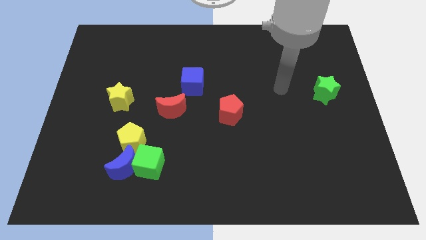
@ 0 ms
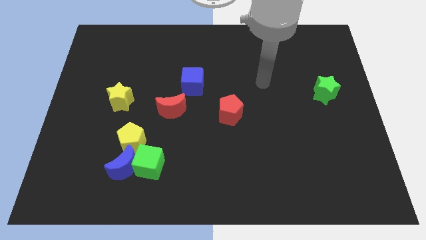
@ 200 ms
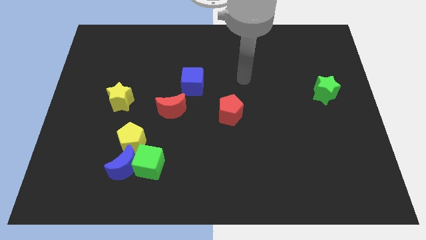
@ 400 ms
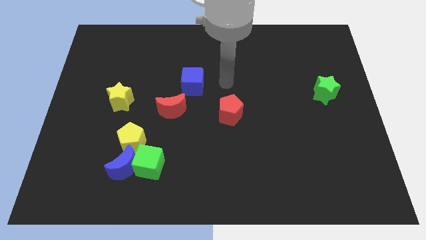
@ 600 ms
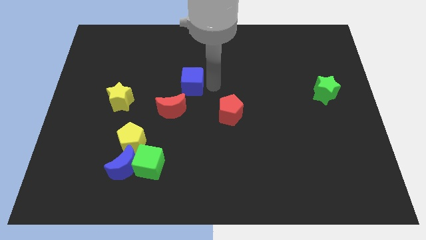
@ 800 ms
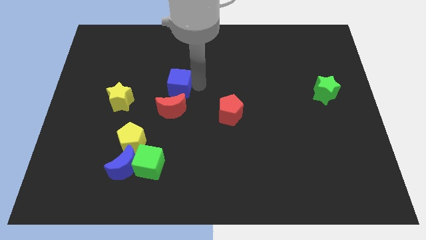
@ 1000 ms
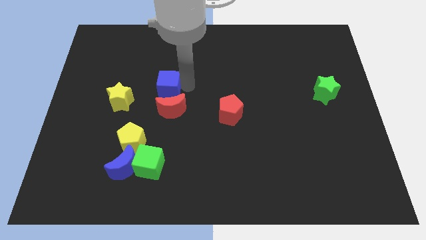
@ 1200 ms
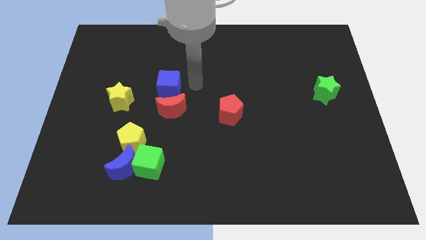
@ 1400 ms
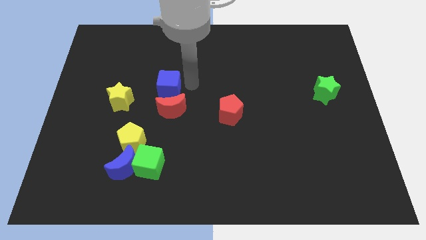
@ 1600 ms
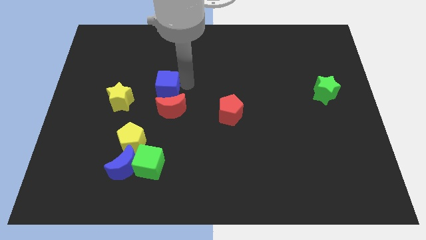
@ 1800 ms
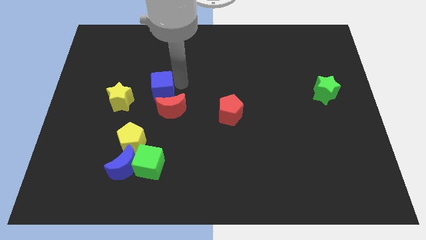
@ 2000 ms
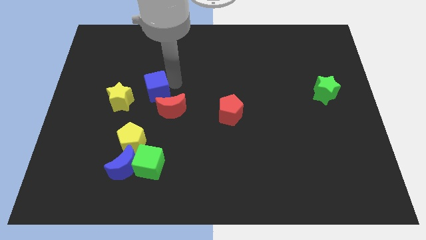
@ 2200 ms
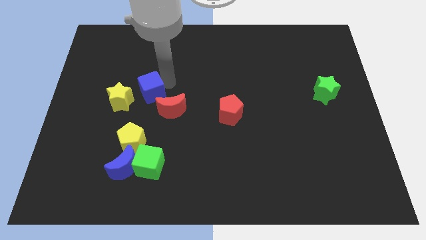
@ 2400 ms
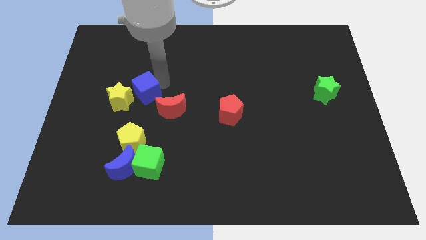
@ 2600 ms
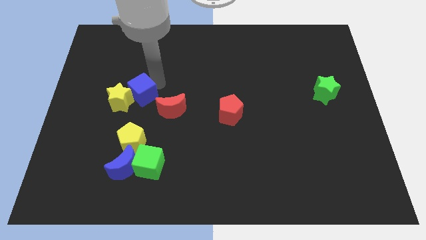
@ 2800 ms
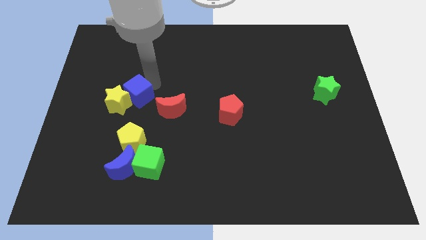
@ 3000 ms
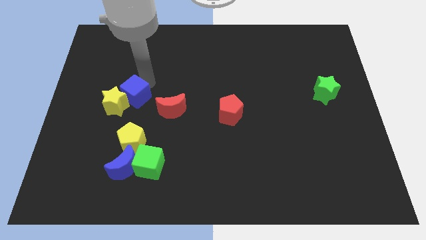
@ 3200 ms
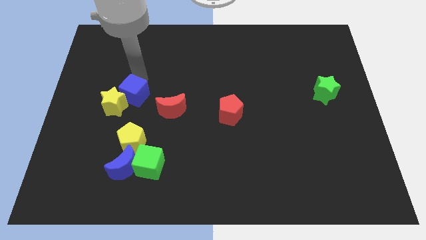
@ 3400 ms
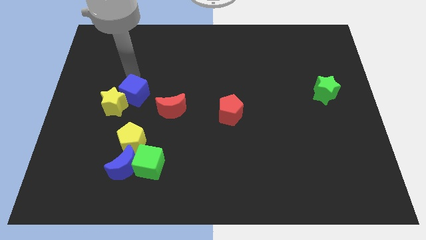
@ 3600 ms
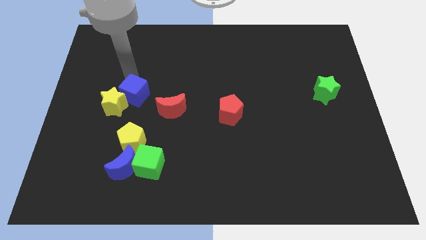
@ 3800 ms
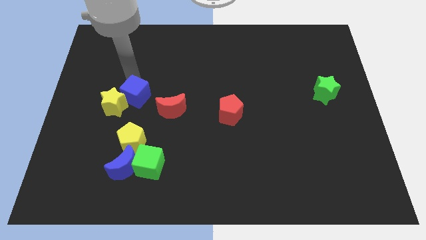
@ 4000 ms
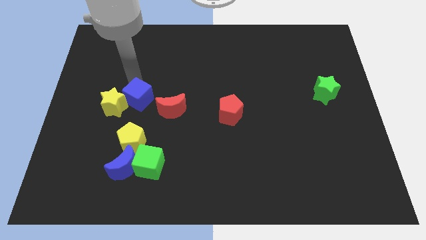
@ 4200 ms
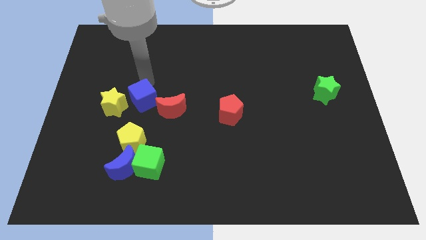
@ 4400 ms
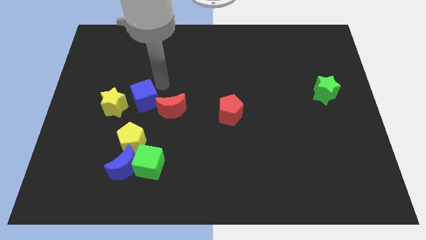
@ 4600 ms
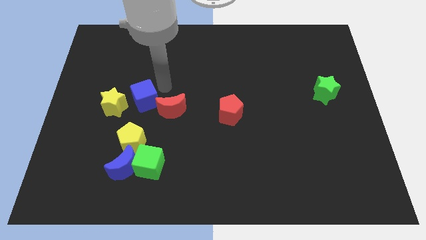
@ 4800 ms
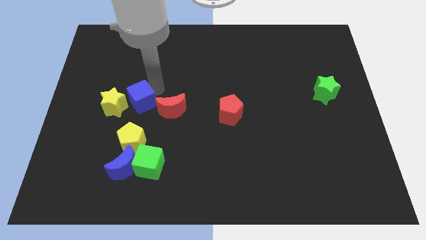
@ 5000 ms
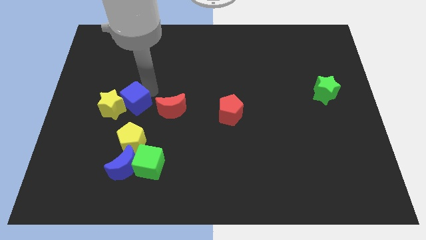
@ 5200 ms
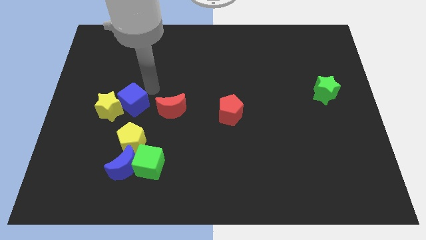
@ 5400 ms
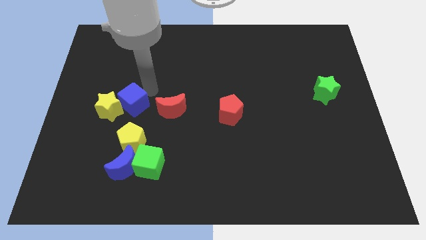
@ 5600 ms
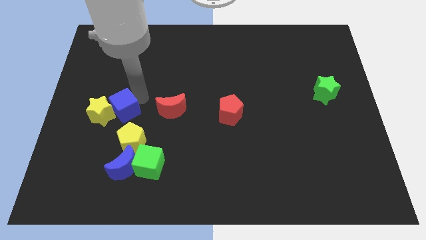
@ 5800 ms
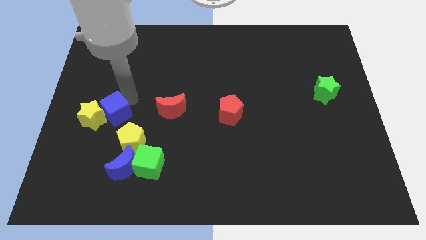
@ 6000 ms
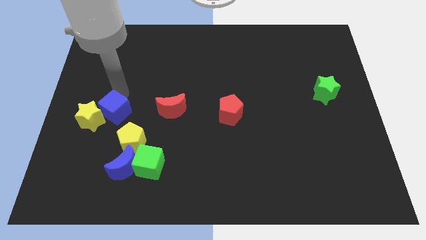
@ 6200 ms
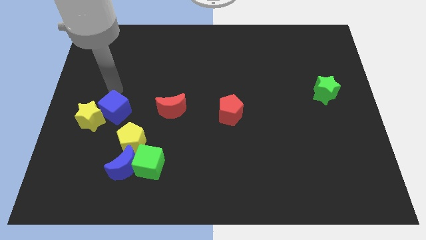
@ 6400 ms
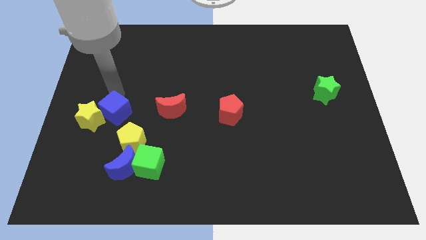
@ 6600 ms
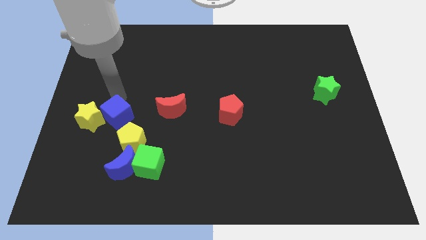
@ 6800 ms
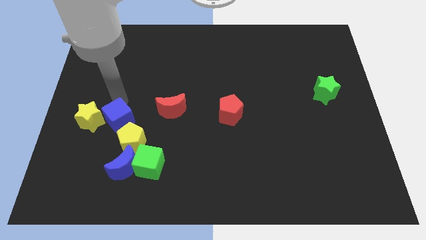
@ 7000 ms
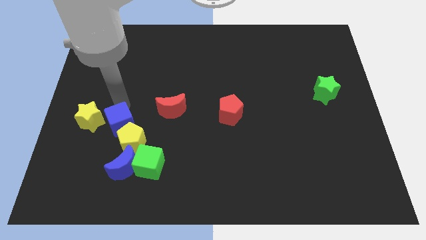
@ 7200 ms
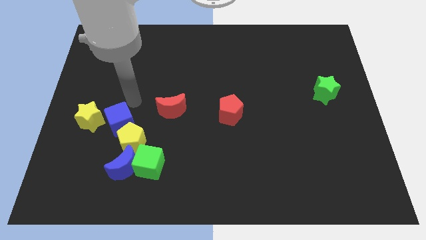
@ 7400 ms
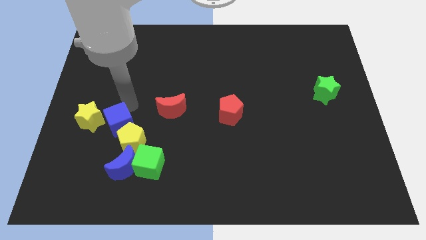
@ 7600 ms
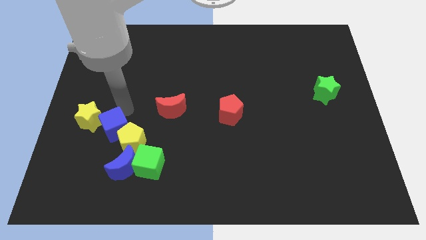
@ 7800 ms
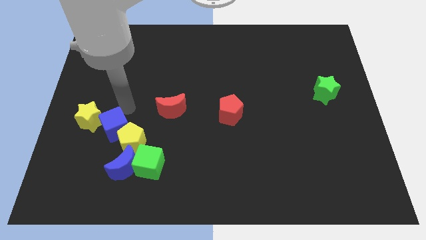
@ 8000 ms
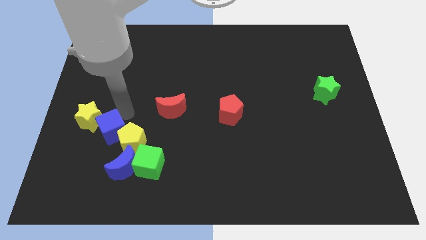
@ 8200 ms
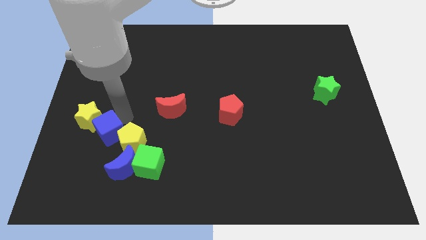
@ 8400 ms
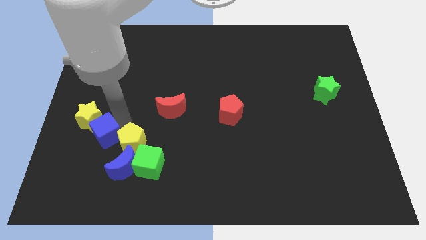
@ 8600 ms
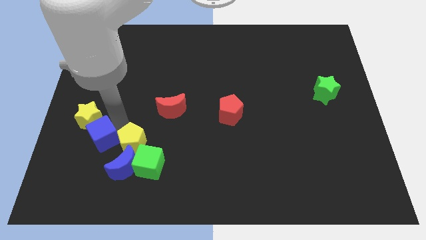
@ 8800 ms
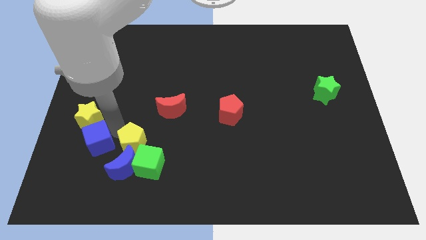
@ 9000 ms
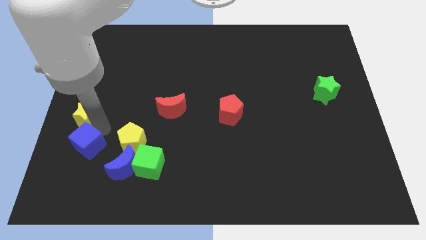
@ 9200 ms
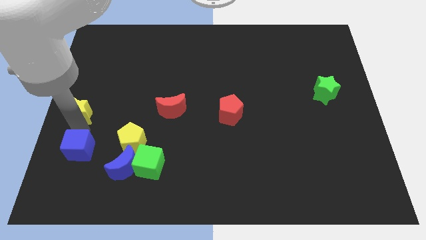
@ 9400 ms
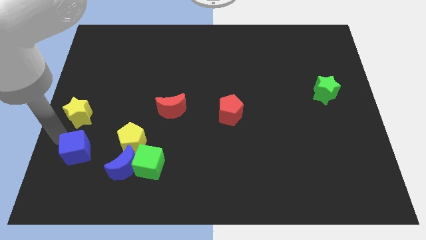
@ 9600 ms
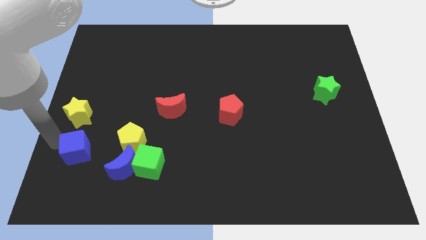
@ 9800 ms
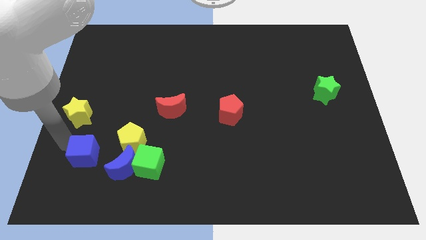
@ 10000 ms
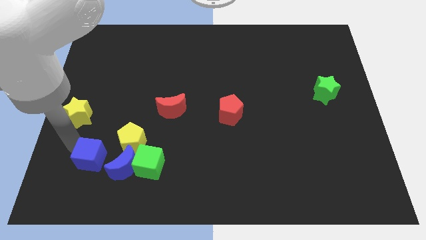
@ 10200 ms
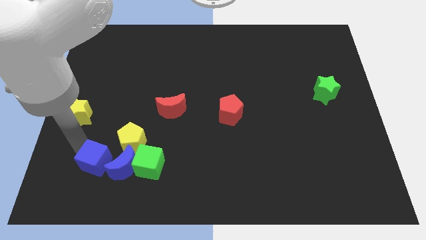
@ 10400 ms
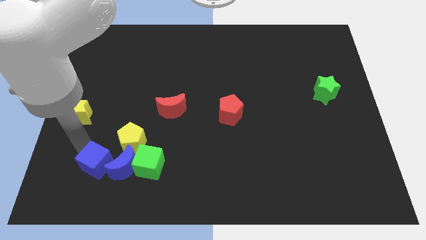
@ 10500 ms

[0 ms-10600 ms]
slide the blue cube next to the blue moon

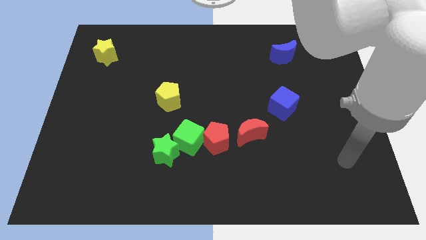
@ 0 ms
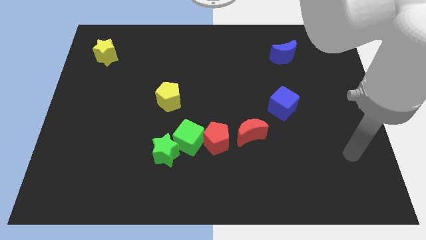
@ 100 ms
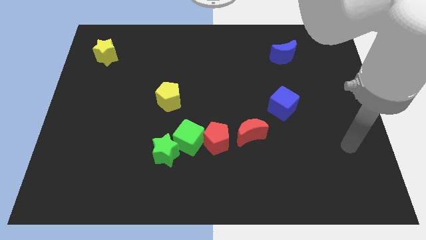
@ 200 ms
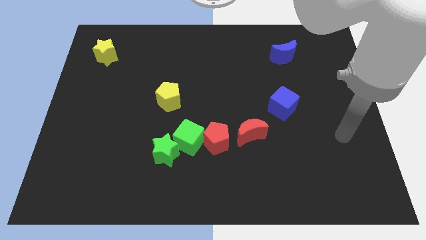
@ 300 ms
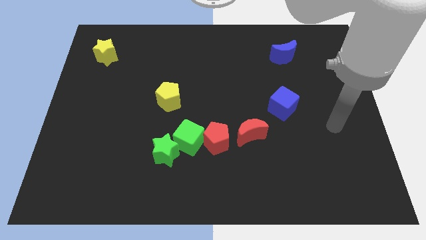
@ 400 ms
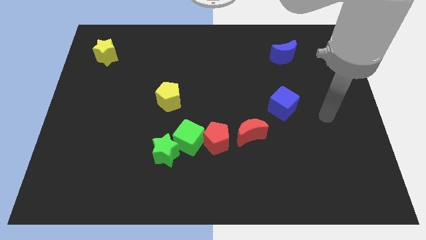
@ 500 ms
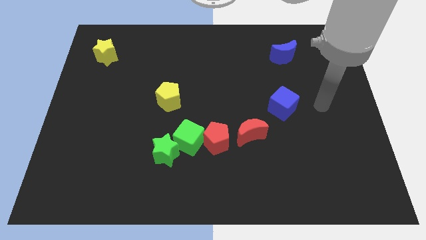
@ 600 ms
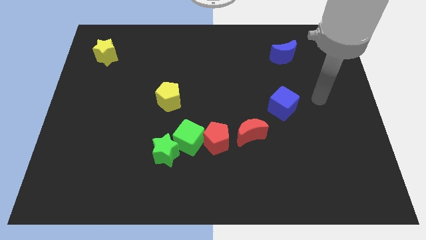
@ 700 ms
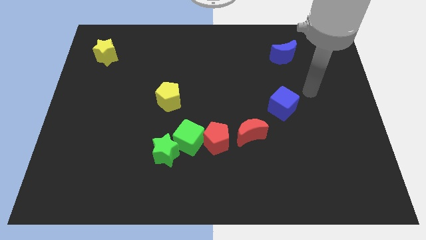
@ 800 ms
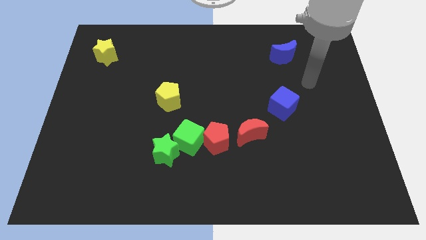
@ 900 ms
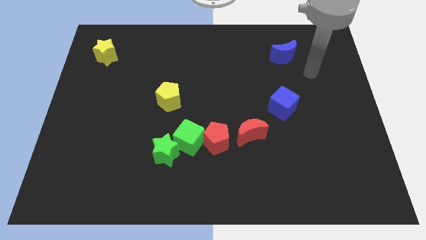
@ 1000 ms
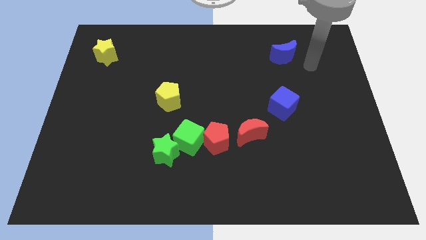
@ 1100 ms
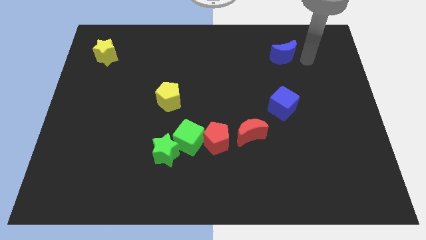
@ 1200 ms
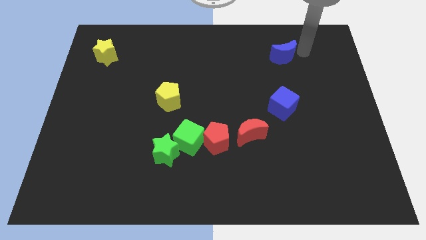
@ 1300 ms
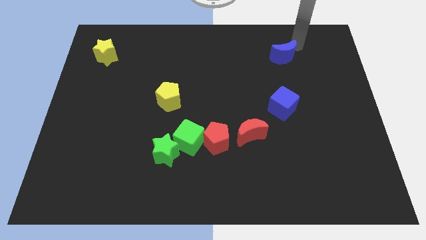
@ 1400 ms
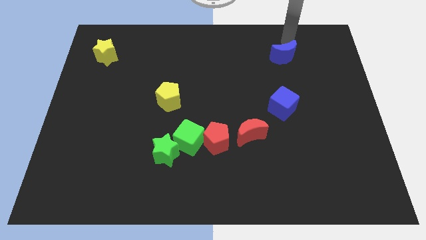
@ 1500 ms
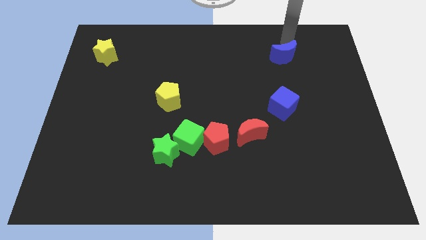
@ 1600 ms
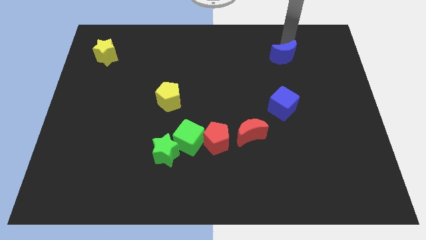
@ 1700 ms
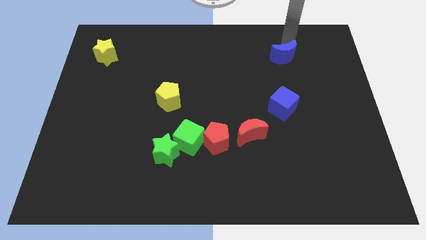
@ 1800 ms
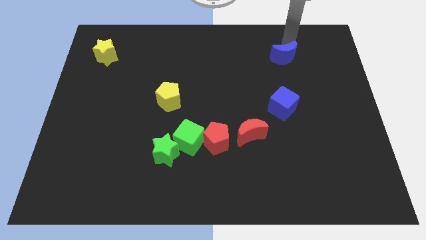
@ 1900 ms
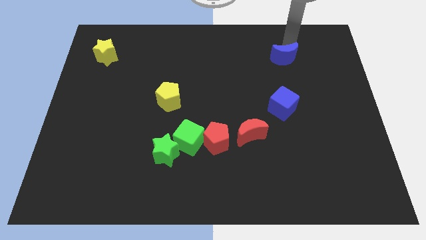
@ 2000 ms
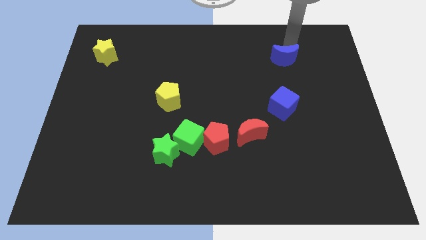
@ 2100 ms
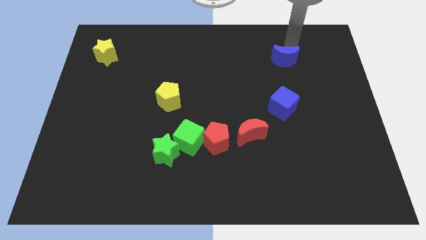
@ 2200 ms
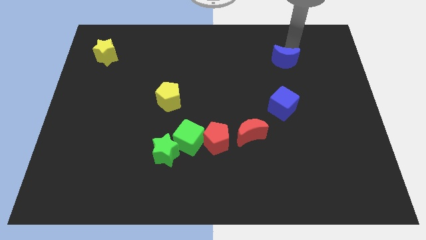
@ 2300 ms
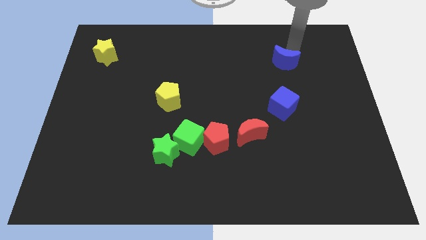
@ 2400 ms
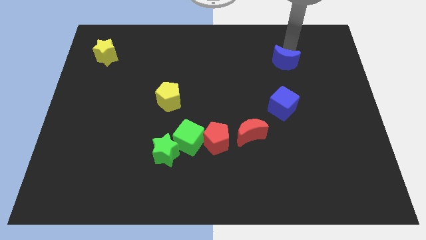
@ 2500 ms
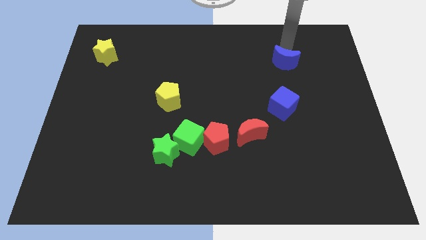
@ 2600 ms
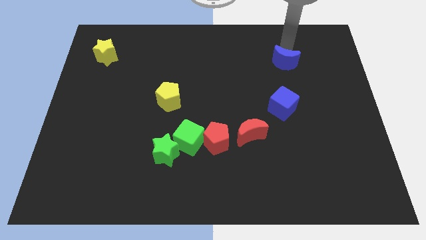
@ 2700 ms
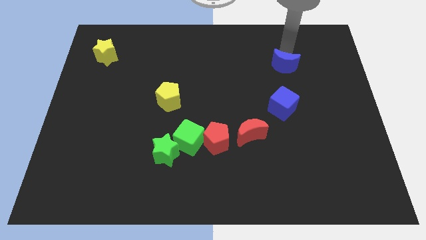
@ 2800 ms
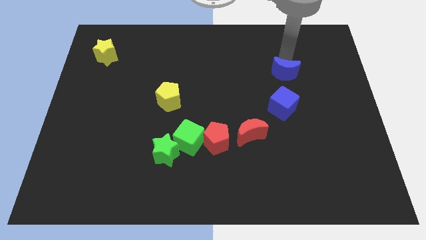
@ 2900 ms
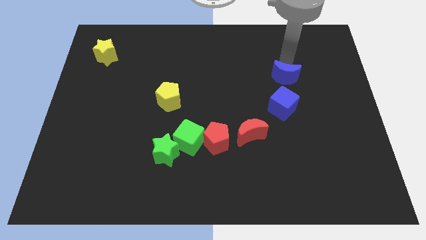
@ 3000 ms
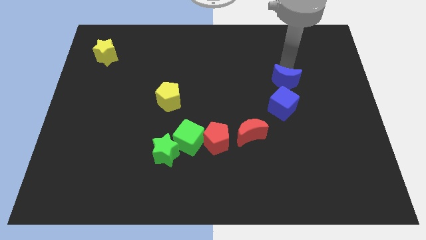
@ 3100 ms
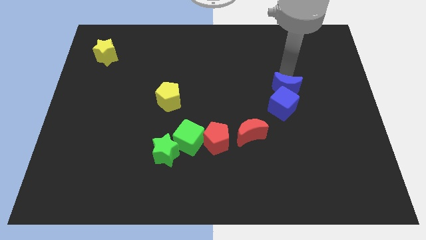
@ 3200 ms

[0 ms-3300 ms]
slide the blue moon next to the blue cube
